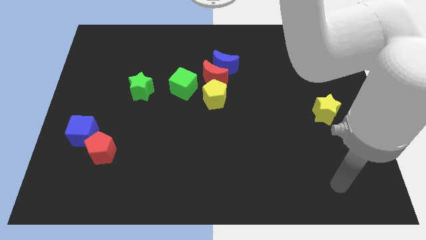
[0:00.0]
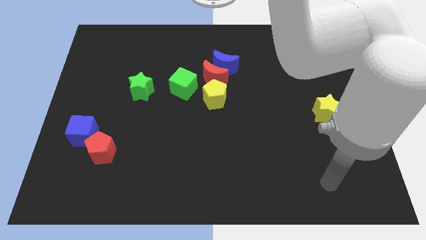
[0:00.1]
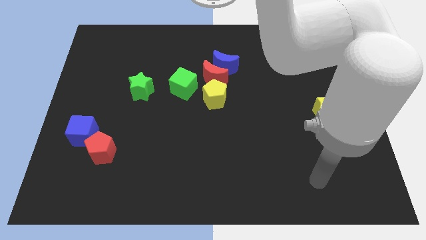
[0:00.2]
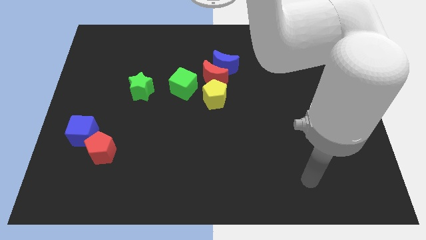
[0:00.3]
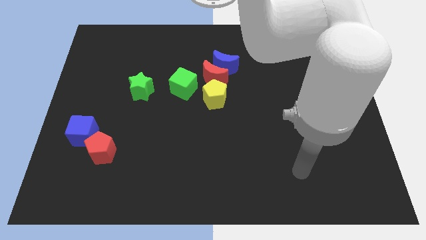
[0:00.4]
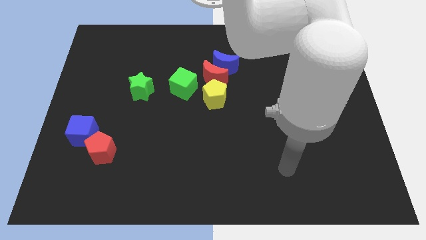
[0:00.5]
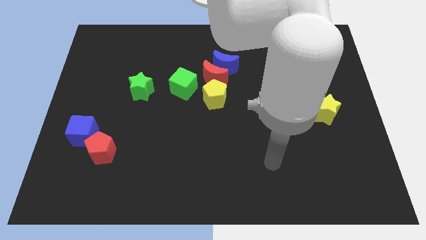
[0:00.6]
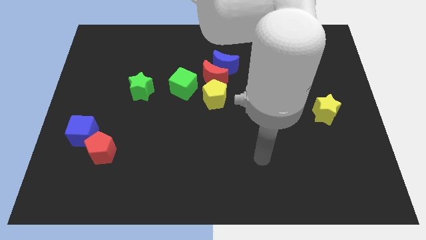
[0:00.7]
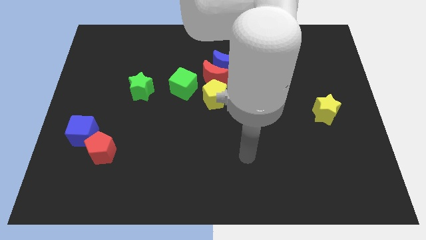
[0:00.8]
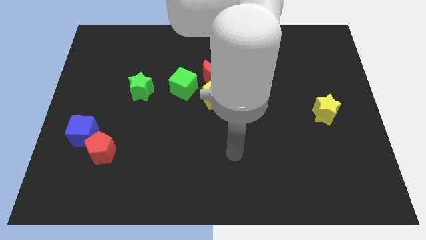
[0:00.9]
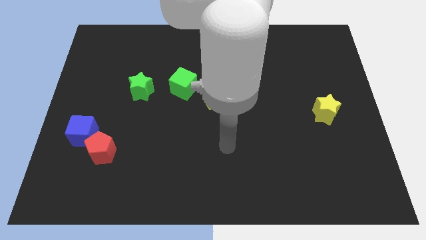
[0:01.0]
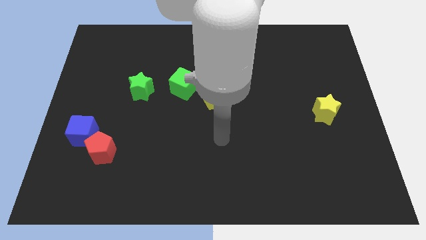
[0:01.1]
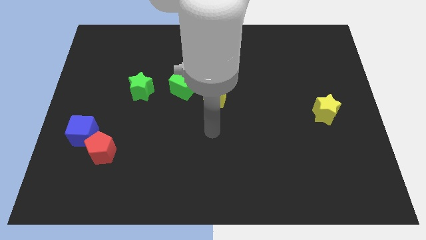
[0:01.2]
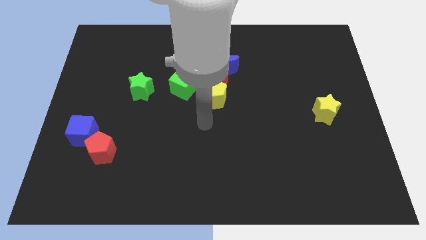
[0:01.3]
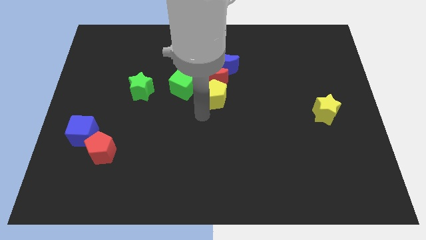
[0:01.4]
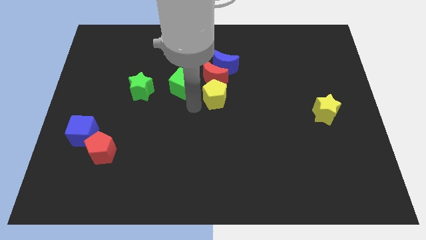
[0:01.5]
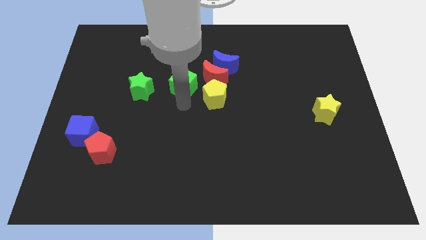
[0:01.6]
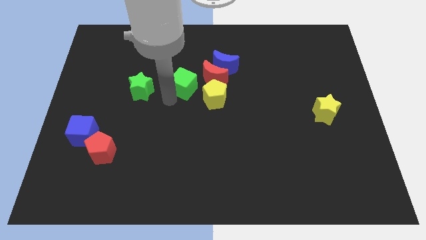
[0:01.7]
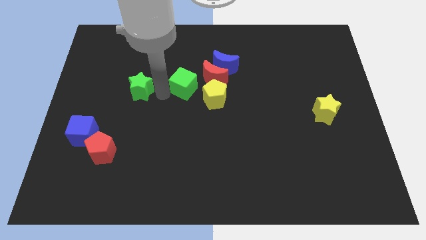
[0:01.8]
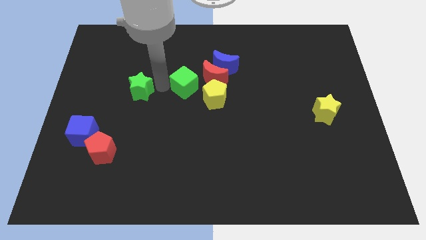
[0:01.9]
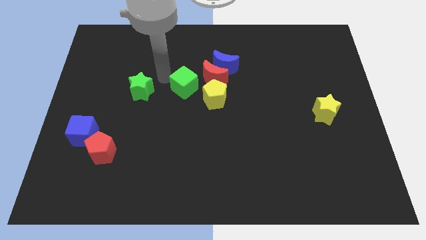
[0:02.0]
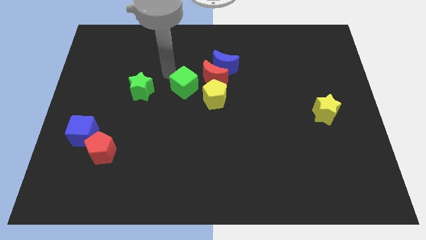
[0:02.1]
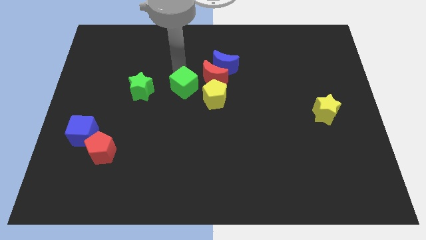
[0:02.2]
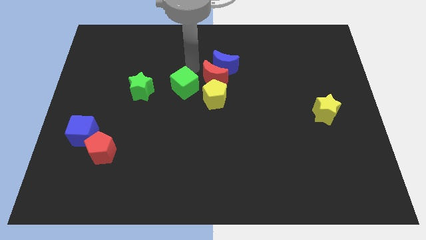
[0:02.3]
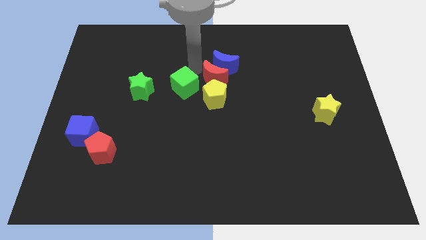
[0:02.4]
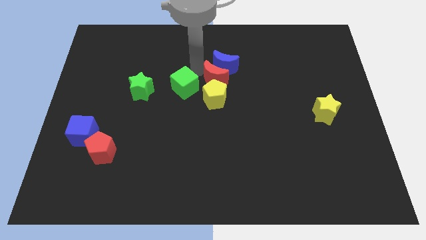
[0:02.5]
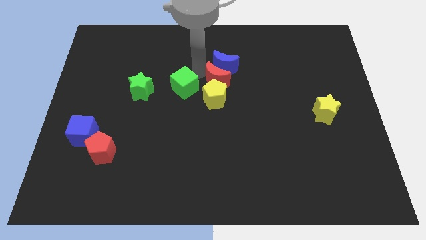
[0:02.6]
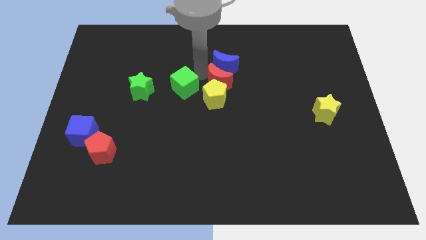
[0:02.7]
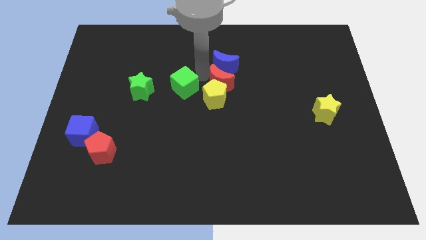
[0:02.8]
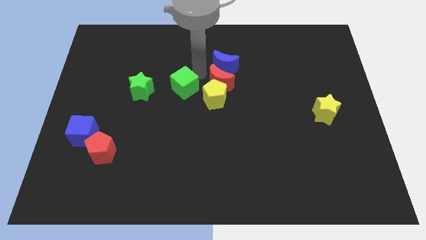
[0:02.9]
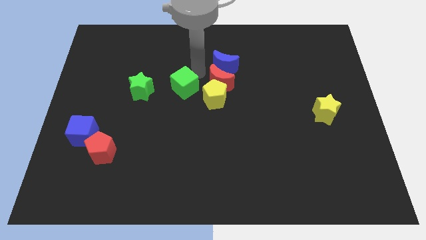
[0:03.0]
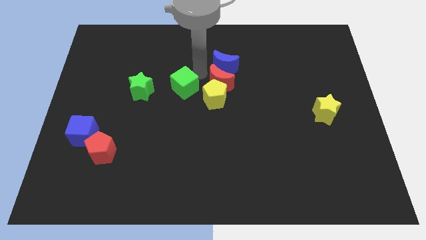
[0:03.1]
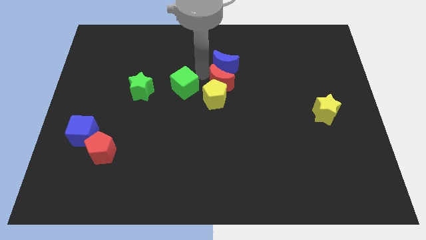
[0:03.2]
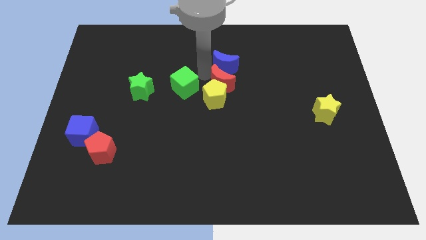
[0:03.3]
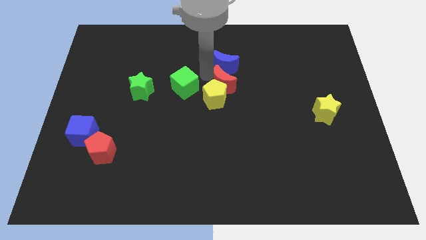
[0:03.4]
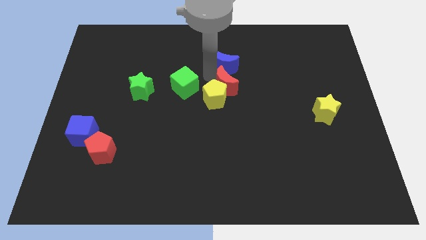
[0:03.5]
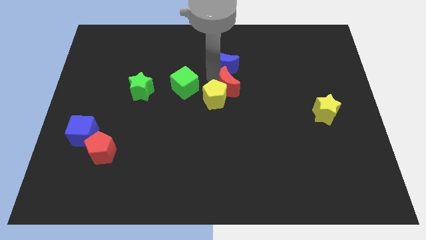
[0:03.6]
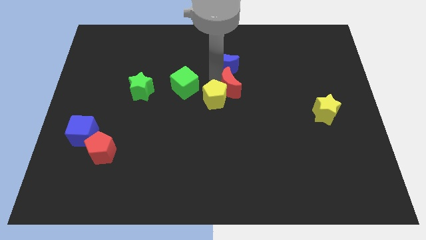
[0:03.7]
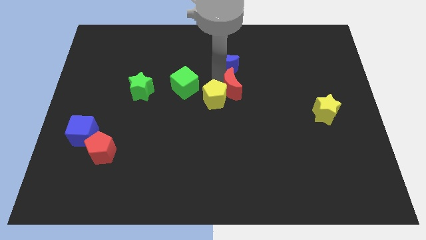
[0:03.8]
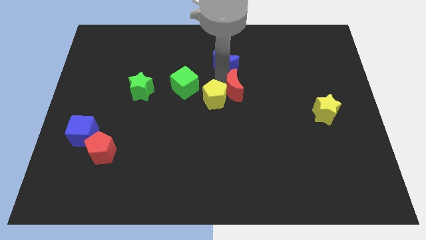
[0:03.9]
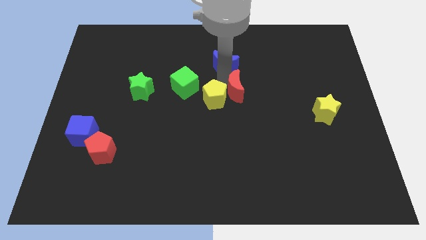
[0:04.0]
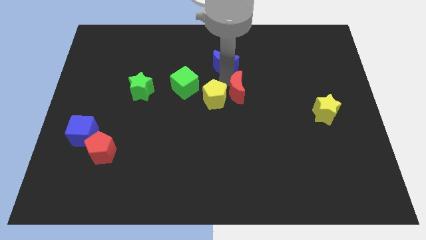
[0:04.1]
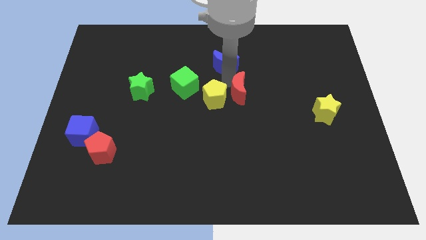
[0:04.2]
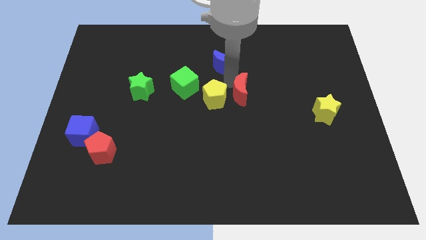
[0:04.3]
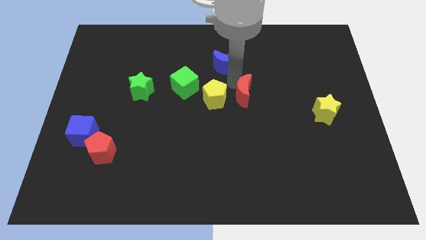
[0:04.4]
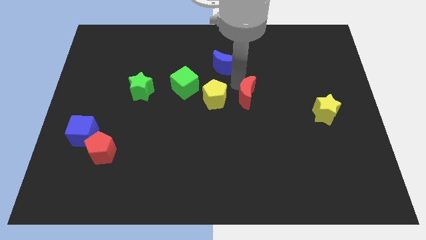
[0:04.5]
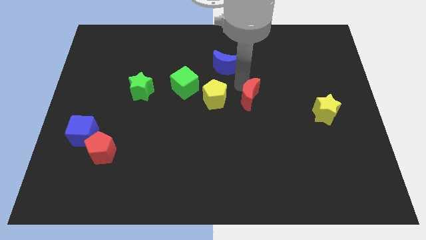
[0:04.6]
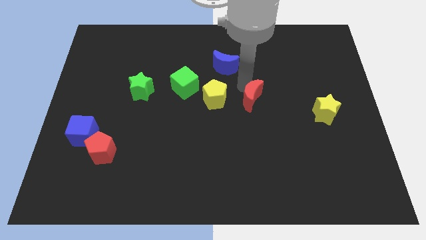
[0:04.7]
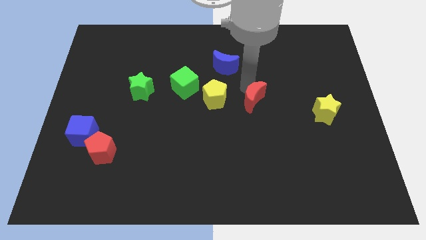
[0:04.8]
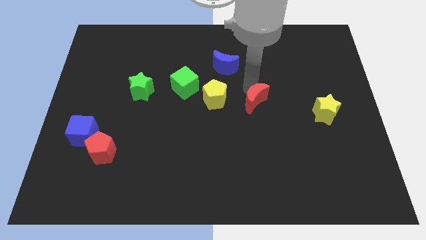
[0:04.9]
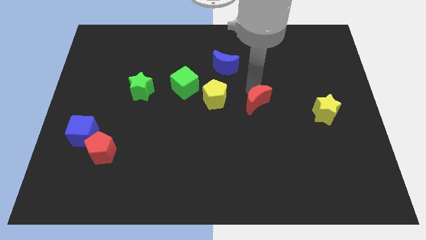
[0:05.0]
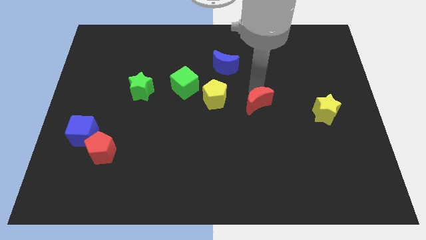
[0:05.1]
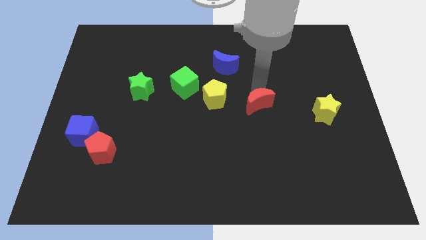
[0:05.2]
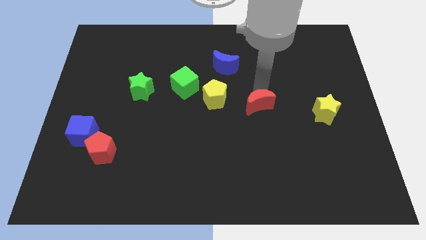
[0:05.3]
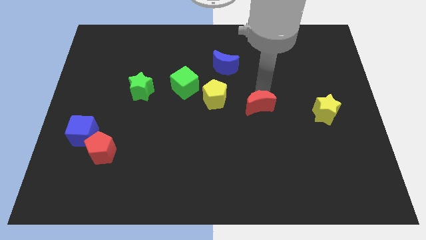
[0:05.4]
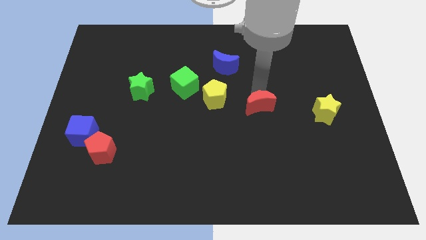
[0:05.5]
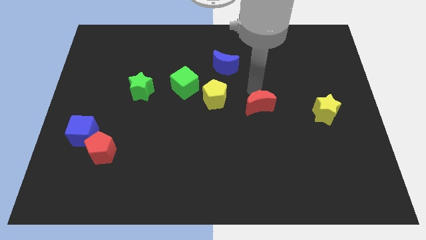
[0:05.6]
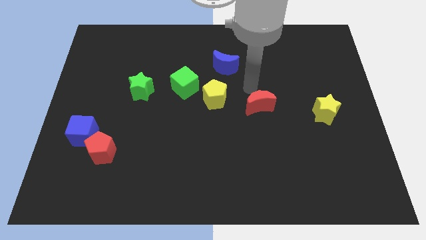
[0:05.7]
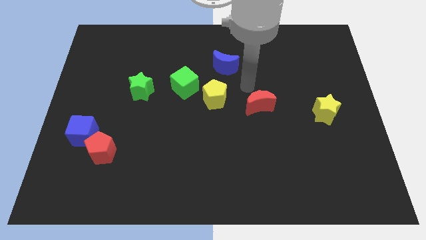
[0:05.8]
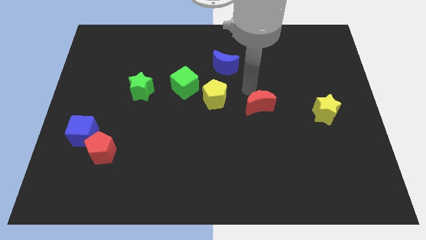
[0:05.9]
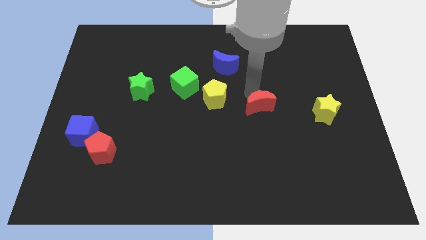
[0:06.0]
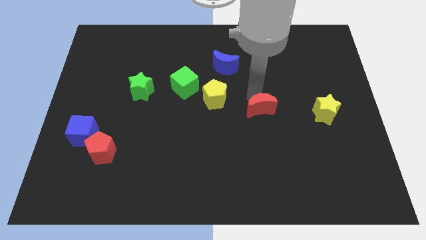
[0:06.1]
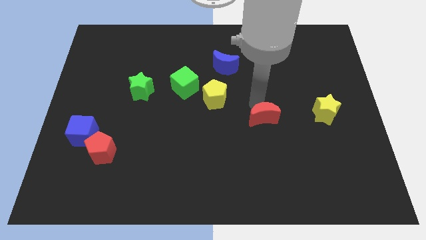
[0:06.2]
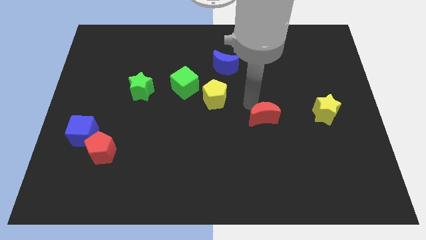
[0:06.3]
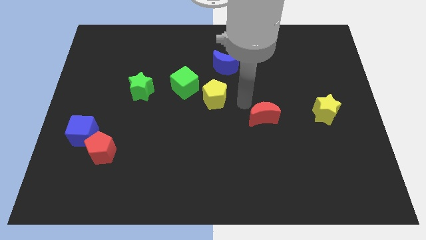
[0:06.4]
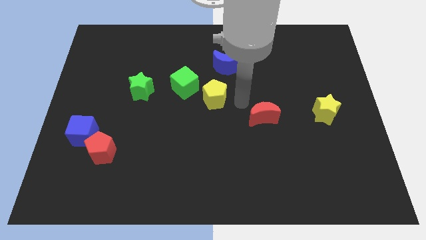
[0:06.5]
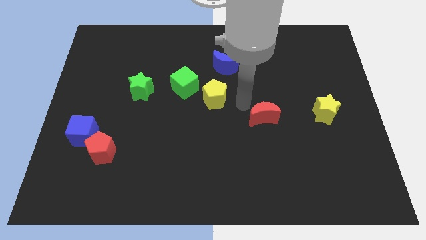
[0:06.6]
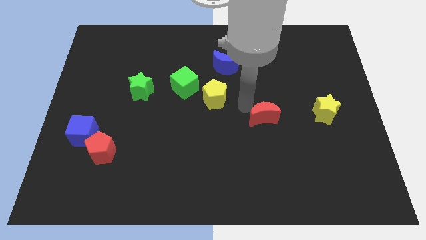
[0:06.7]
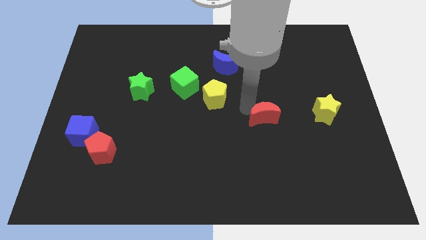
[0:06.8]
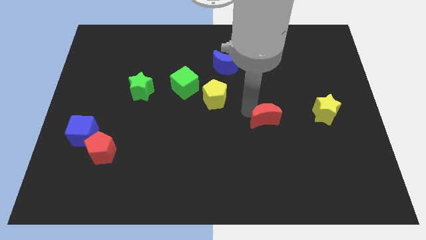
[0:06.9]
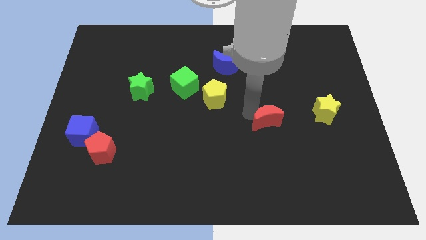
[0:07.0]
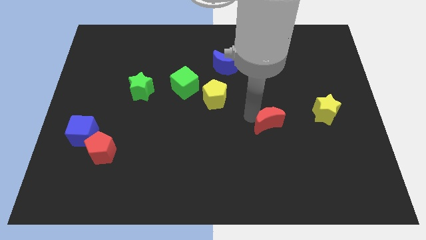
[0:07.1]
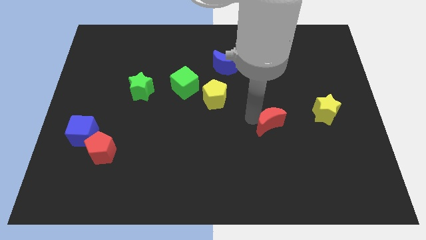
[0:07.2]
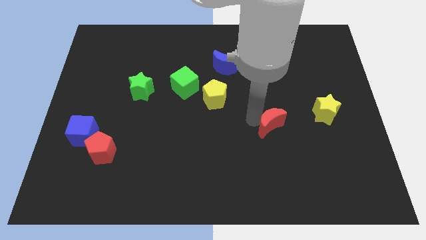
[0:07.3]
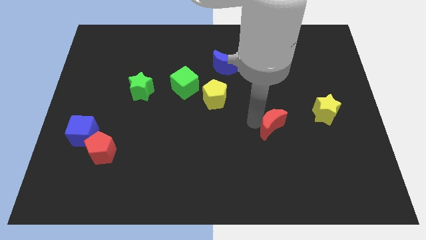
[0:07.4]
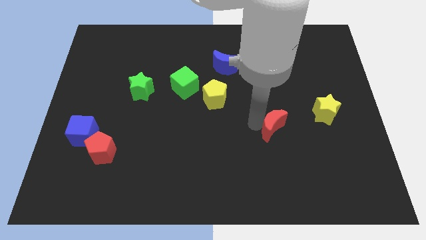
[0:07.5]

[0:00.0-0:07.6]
move the red moon downwards and then right

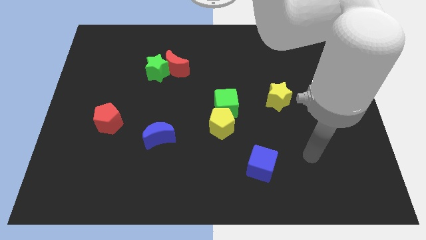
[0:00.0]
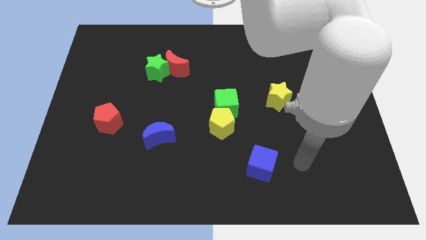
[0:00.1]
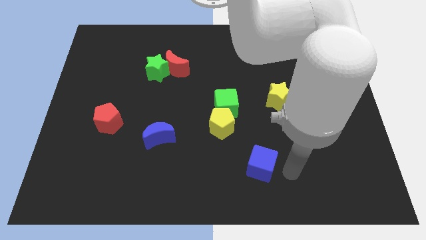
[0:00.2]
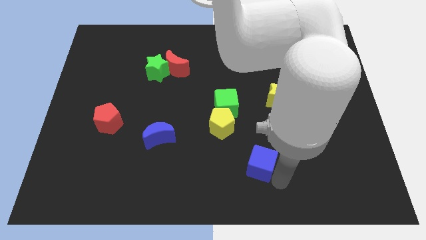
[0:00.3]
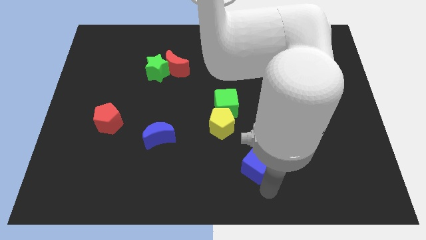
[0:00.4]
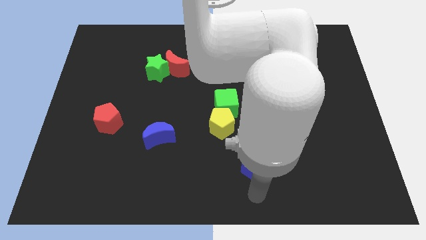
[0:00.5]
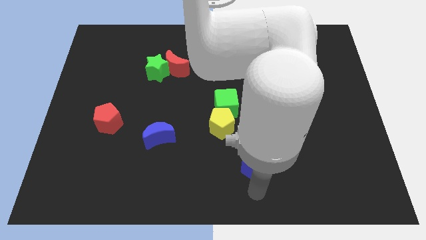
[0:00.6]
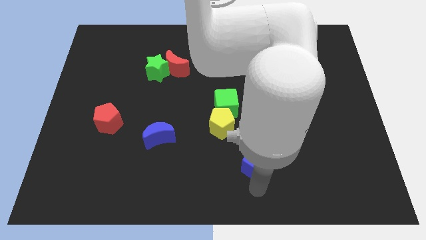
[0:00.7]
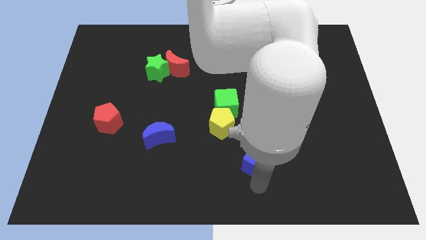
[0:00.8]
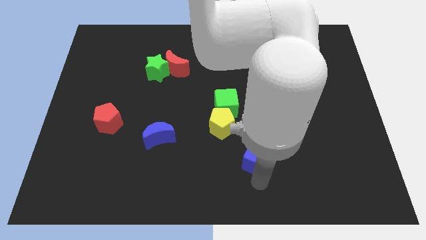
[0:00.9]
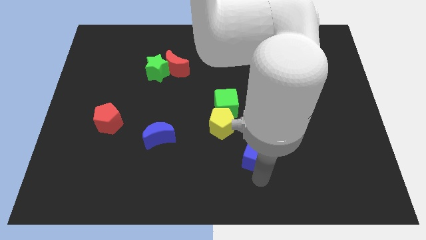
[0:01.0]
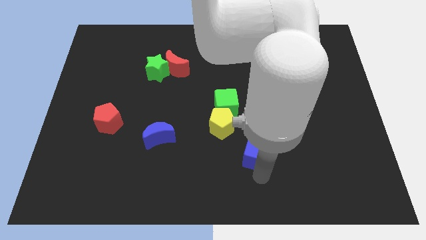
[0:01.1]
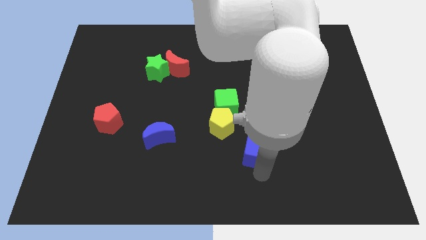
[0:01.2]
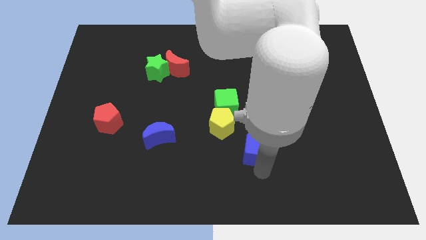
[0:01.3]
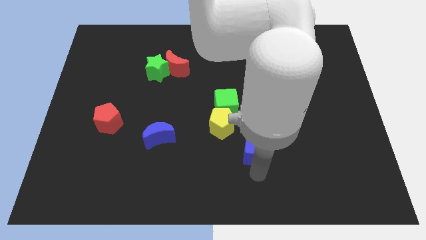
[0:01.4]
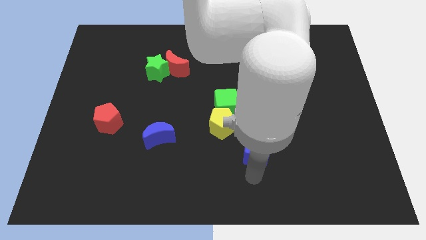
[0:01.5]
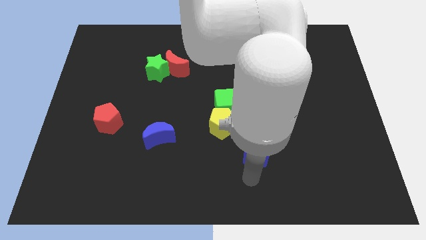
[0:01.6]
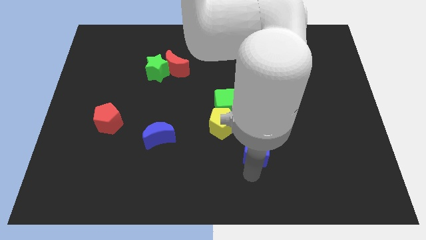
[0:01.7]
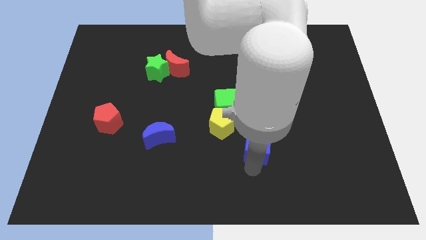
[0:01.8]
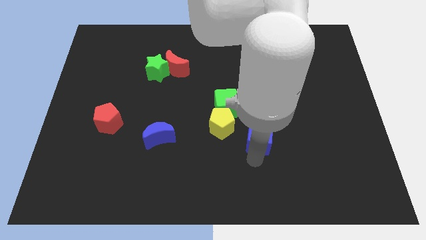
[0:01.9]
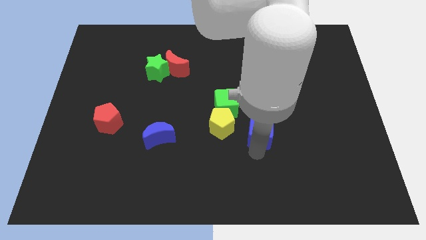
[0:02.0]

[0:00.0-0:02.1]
push the blue cube up a little
